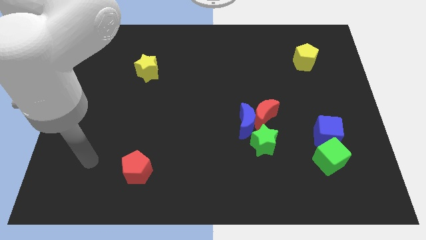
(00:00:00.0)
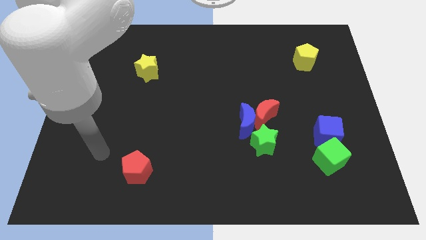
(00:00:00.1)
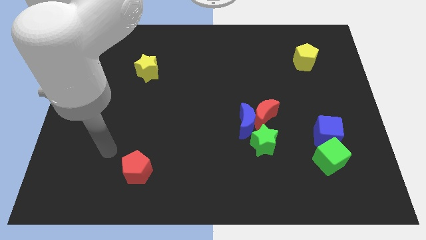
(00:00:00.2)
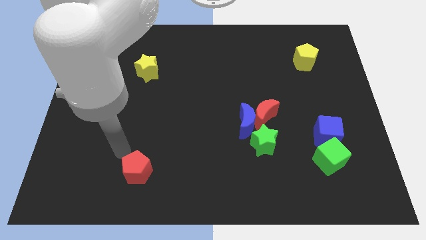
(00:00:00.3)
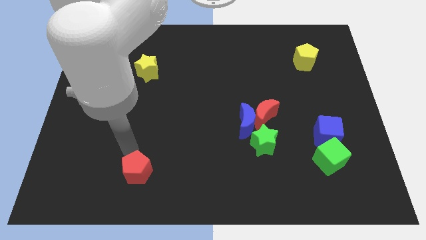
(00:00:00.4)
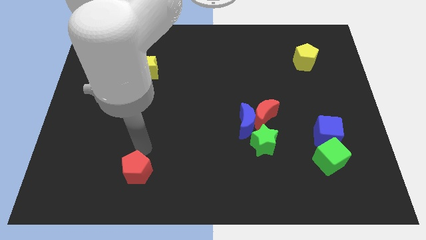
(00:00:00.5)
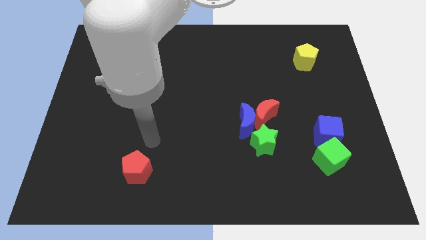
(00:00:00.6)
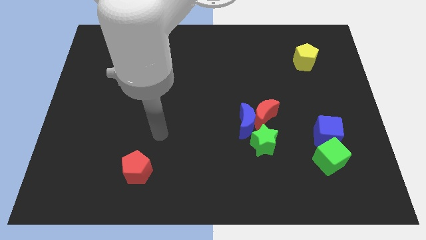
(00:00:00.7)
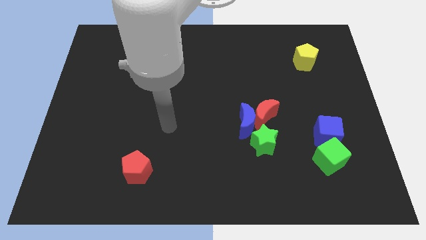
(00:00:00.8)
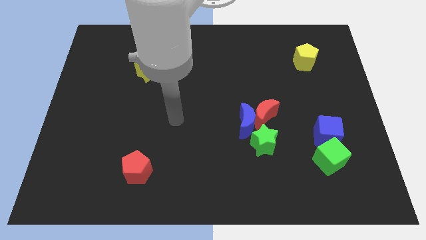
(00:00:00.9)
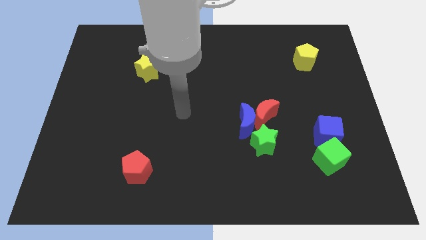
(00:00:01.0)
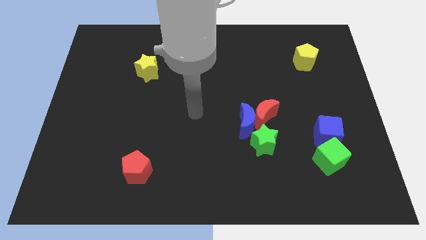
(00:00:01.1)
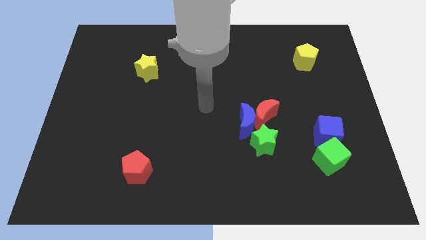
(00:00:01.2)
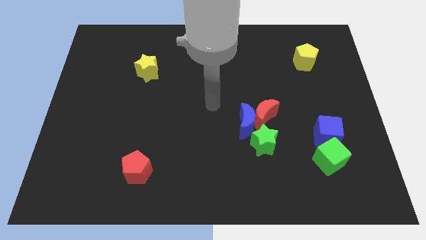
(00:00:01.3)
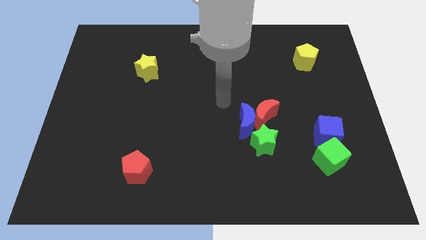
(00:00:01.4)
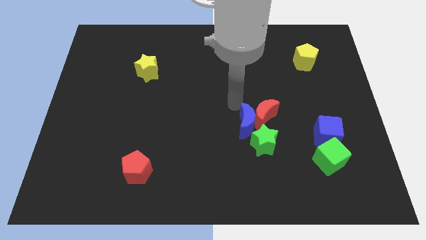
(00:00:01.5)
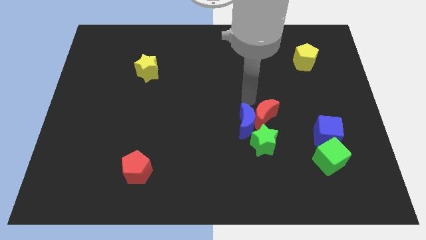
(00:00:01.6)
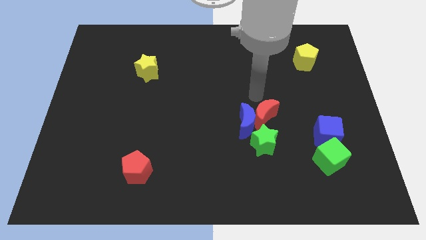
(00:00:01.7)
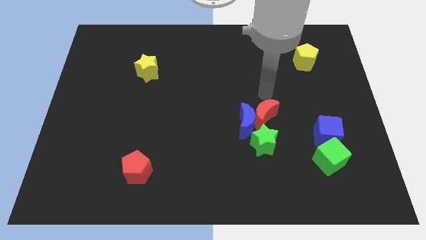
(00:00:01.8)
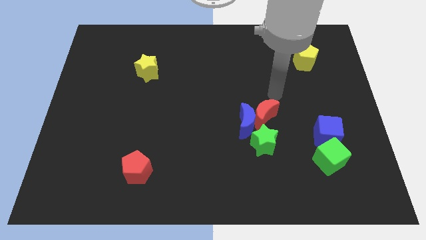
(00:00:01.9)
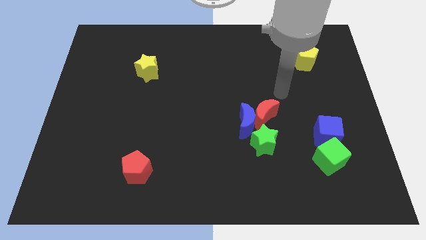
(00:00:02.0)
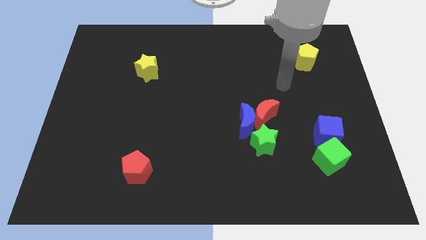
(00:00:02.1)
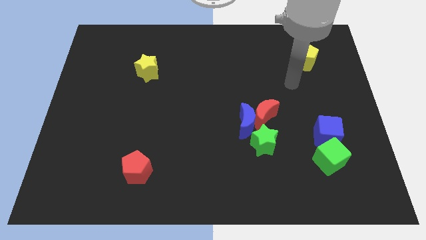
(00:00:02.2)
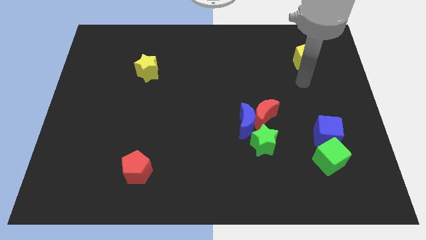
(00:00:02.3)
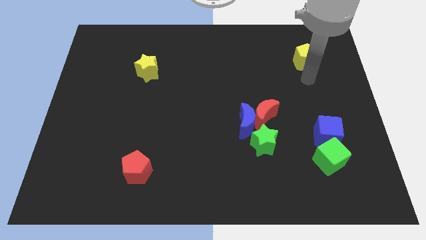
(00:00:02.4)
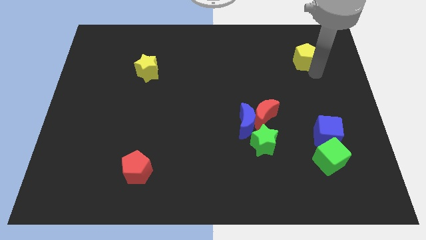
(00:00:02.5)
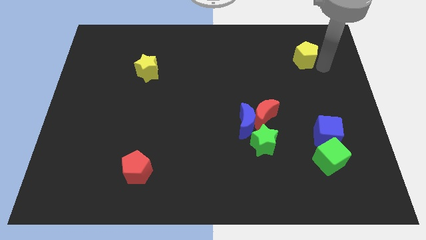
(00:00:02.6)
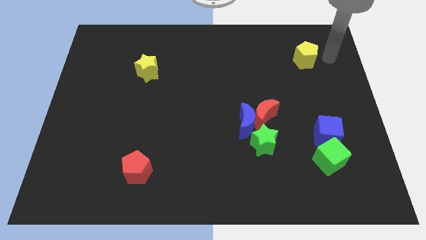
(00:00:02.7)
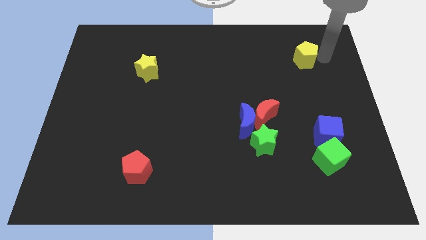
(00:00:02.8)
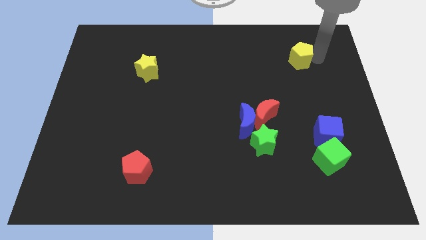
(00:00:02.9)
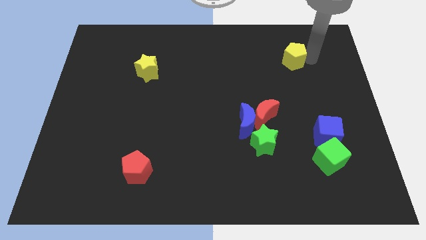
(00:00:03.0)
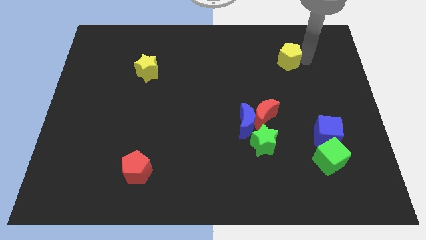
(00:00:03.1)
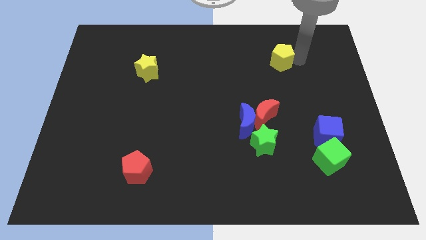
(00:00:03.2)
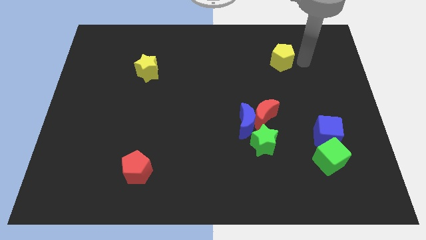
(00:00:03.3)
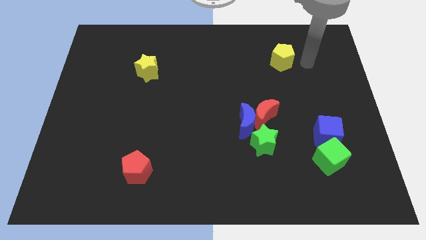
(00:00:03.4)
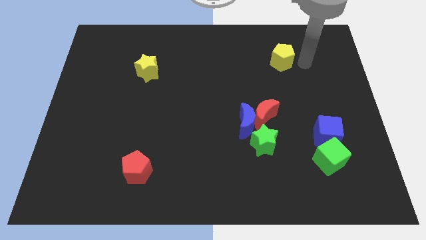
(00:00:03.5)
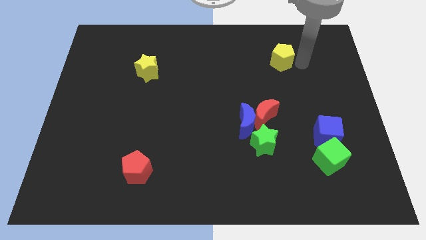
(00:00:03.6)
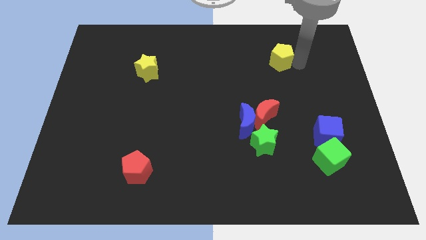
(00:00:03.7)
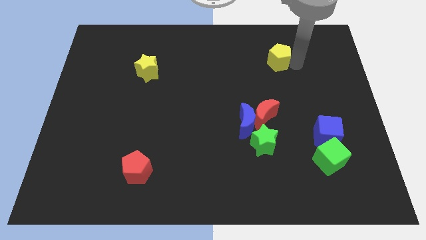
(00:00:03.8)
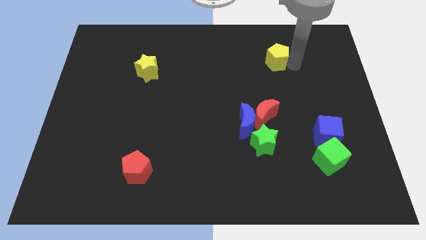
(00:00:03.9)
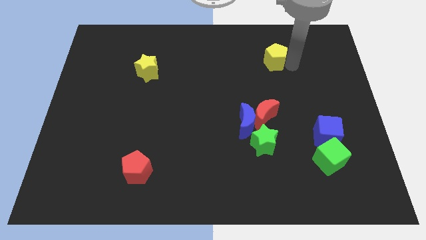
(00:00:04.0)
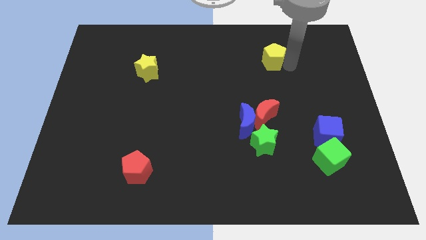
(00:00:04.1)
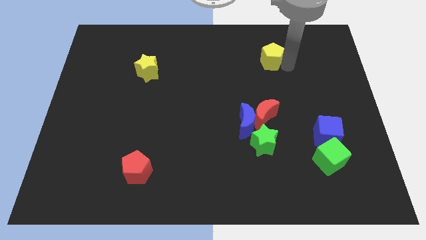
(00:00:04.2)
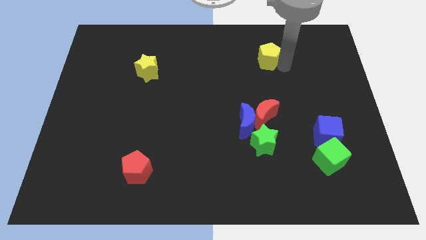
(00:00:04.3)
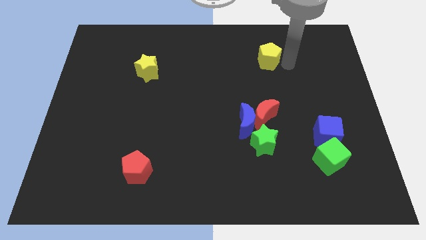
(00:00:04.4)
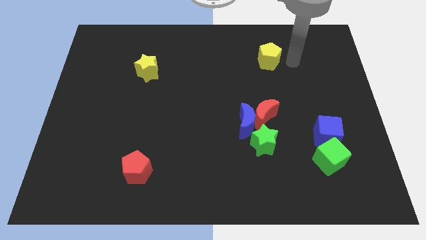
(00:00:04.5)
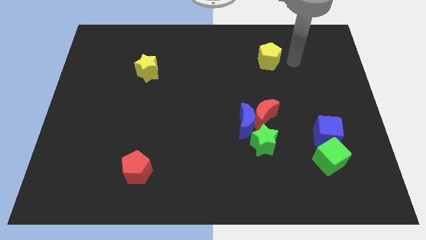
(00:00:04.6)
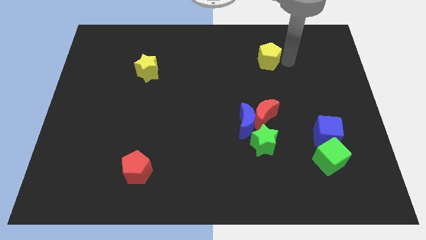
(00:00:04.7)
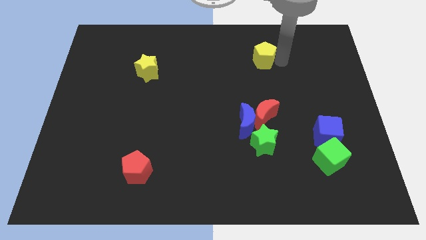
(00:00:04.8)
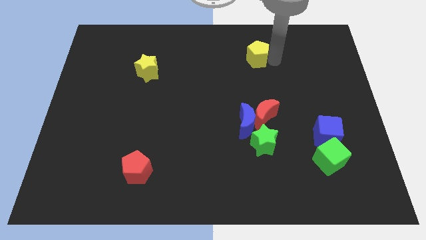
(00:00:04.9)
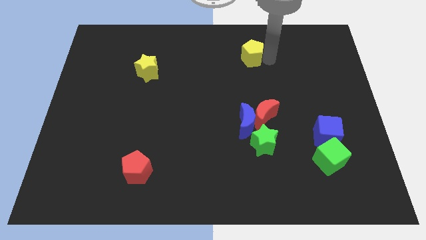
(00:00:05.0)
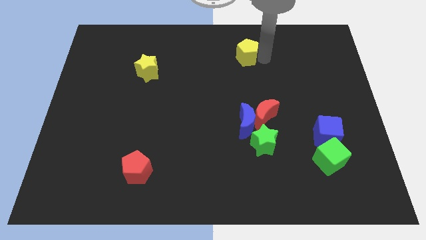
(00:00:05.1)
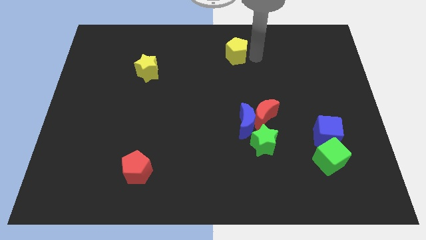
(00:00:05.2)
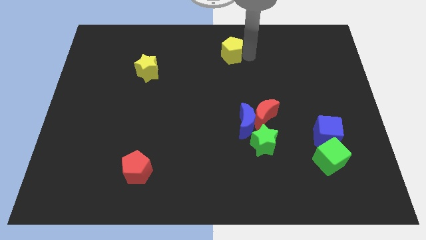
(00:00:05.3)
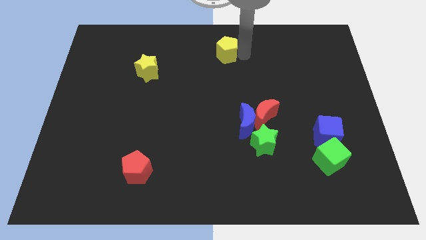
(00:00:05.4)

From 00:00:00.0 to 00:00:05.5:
push the yellow pentagon left

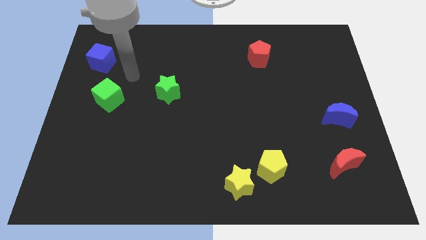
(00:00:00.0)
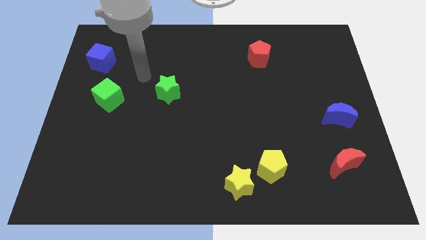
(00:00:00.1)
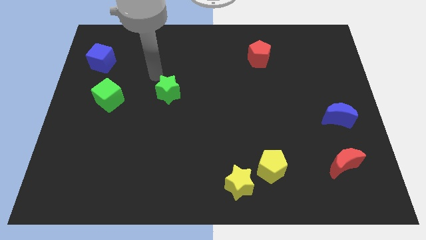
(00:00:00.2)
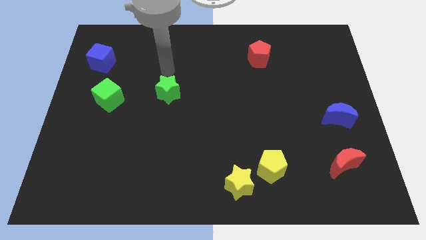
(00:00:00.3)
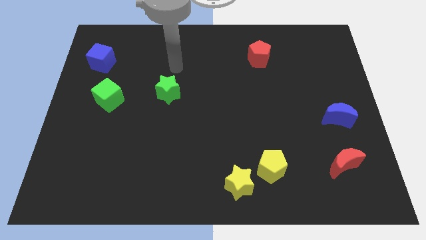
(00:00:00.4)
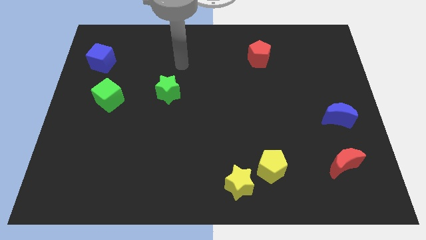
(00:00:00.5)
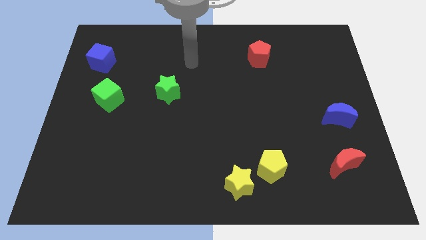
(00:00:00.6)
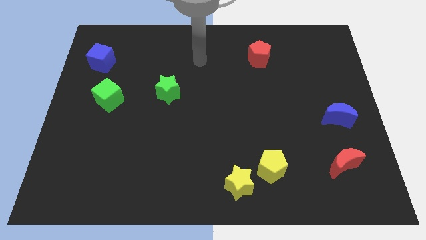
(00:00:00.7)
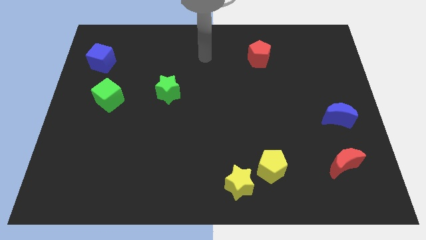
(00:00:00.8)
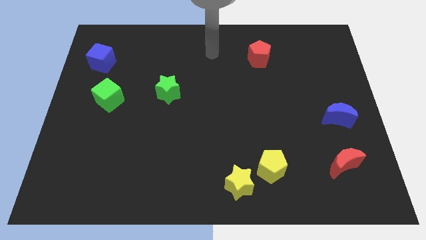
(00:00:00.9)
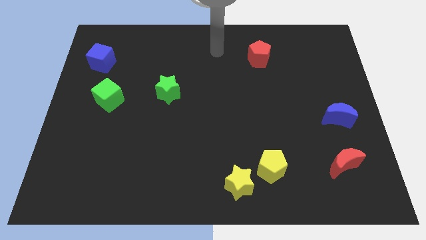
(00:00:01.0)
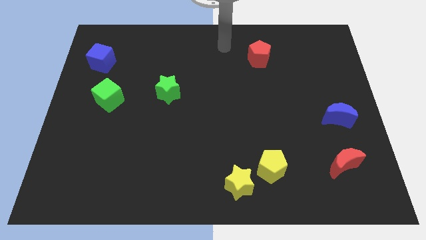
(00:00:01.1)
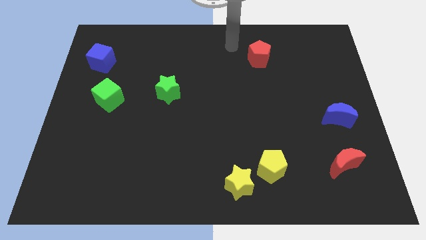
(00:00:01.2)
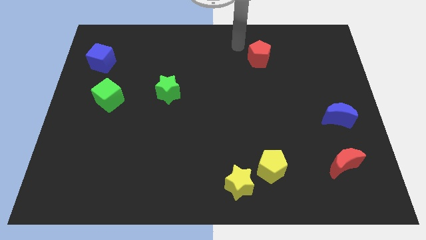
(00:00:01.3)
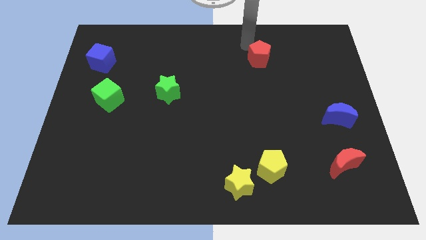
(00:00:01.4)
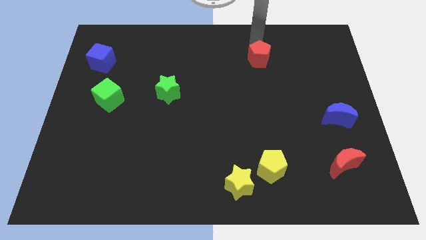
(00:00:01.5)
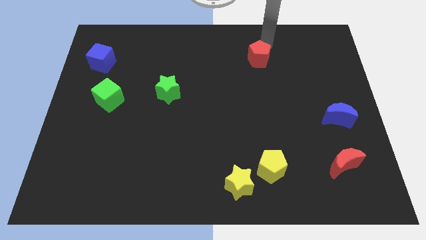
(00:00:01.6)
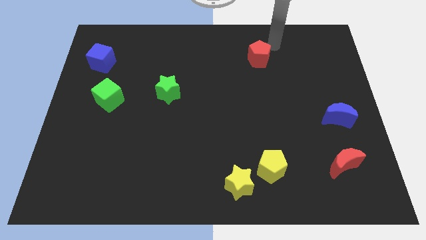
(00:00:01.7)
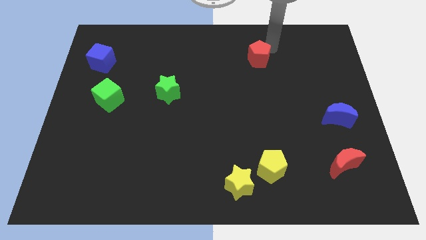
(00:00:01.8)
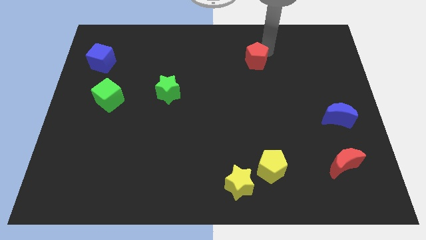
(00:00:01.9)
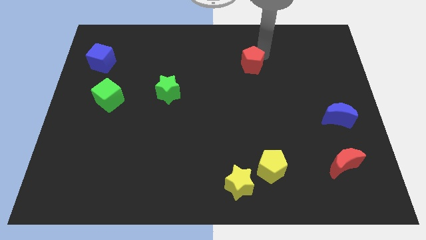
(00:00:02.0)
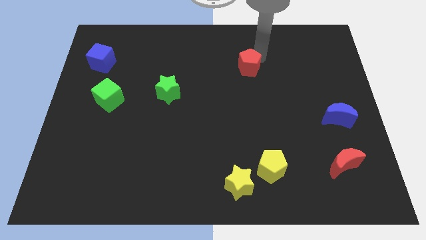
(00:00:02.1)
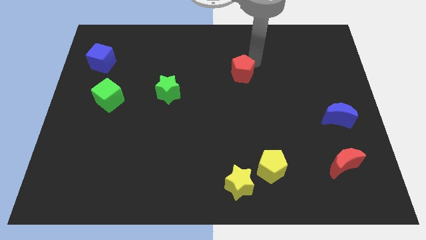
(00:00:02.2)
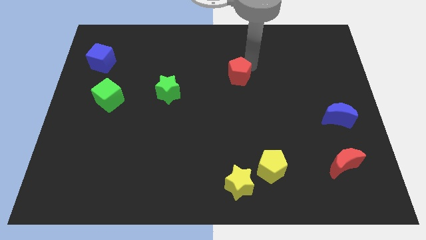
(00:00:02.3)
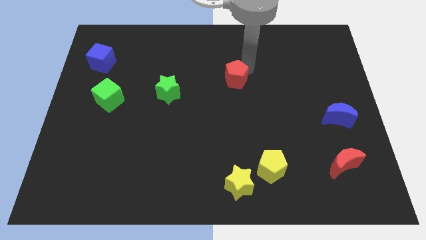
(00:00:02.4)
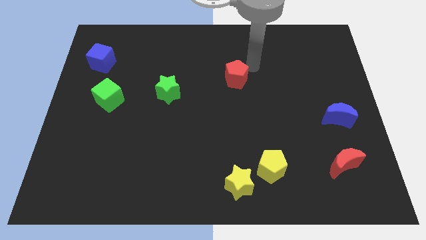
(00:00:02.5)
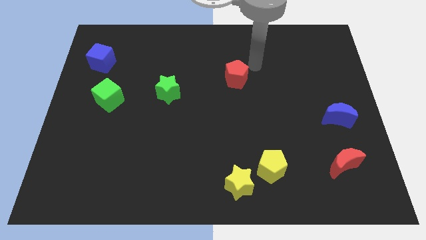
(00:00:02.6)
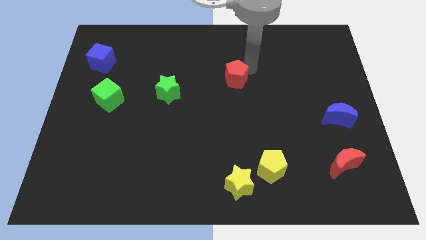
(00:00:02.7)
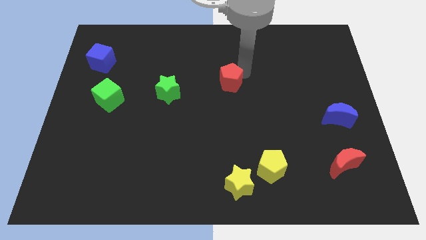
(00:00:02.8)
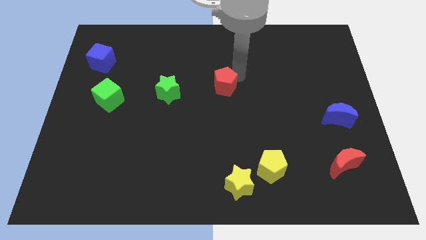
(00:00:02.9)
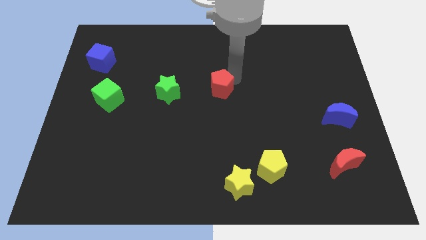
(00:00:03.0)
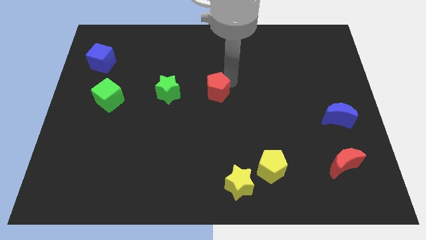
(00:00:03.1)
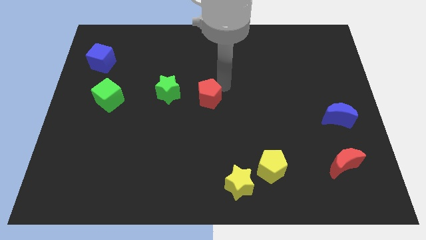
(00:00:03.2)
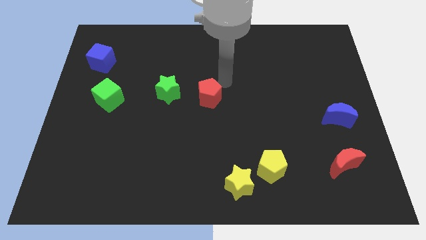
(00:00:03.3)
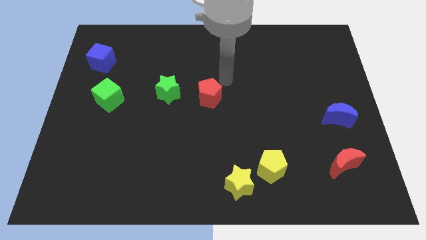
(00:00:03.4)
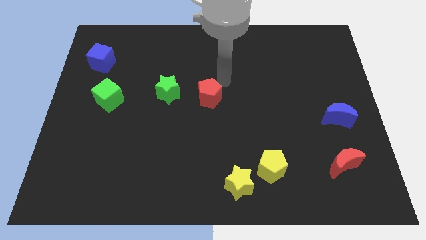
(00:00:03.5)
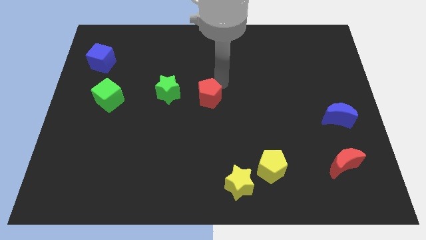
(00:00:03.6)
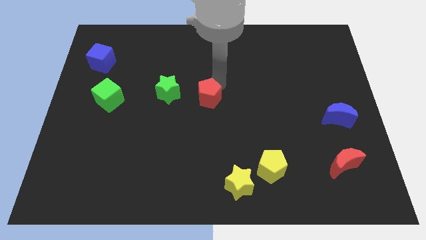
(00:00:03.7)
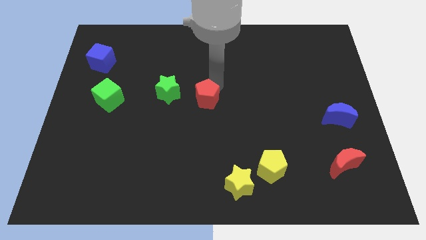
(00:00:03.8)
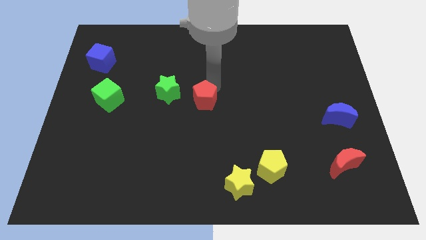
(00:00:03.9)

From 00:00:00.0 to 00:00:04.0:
push the red pentagon downwards and left
